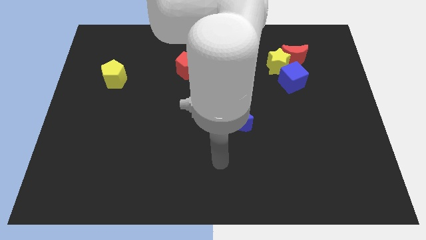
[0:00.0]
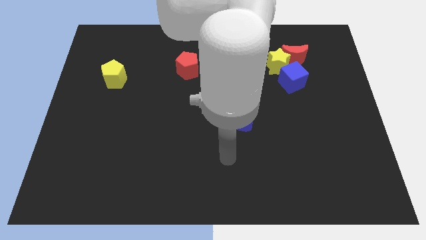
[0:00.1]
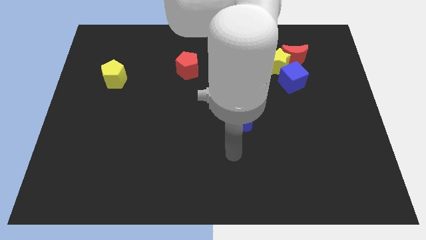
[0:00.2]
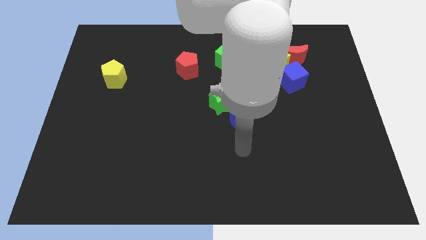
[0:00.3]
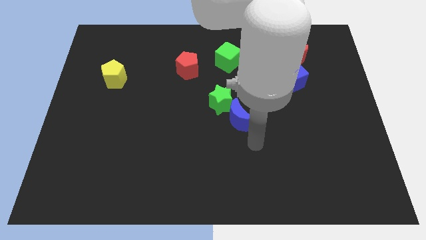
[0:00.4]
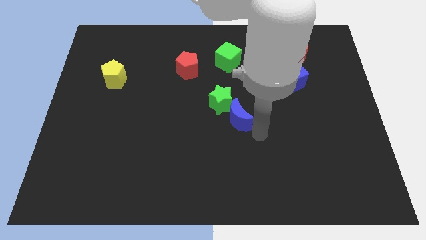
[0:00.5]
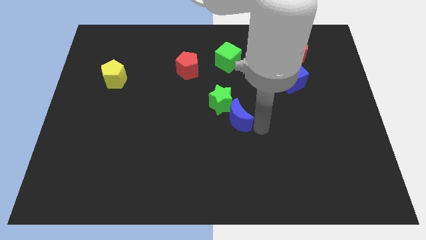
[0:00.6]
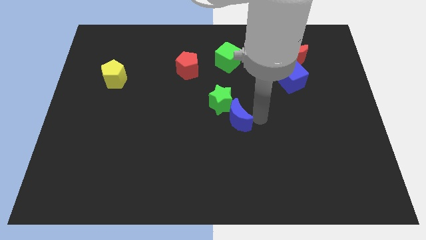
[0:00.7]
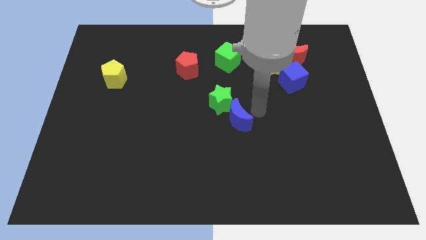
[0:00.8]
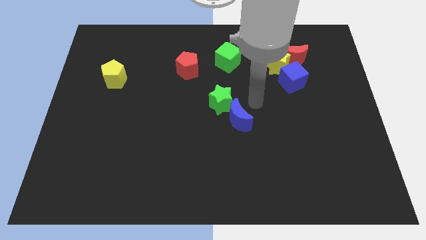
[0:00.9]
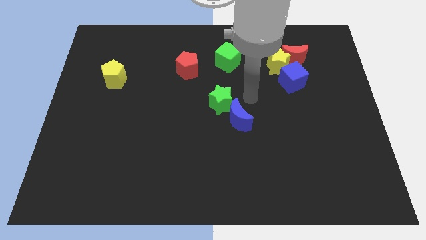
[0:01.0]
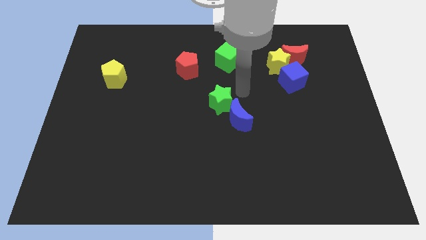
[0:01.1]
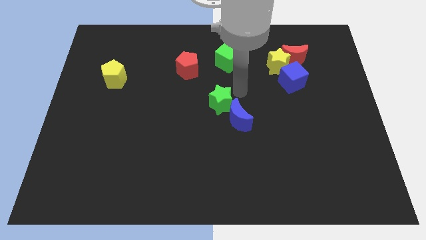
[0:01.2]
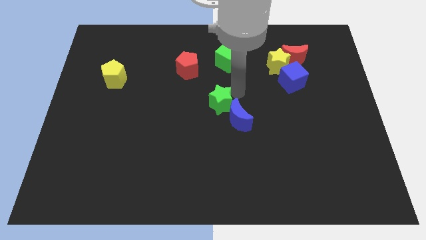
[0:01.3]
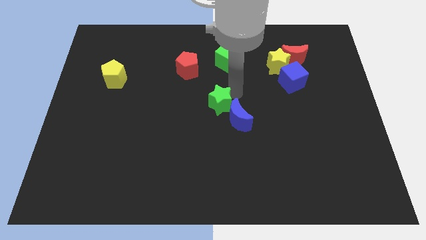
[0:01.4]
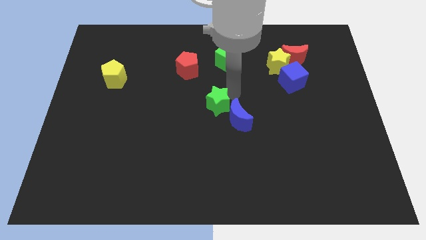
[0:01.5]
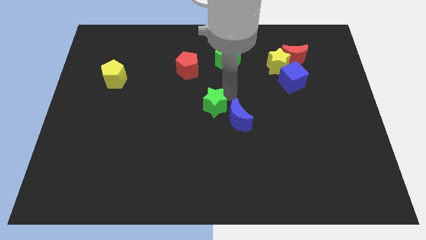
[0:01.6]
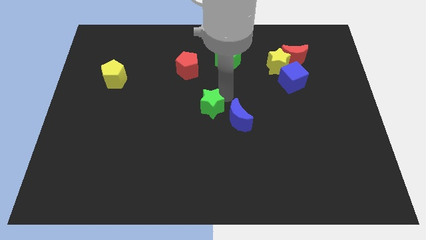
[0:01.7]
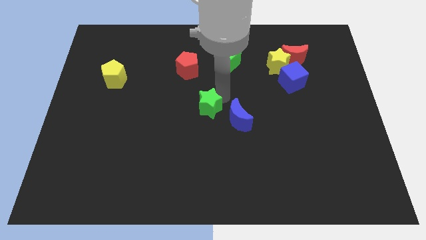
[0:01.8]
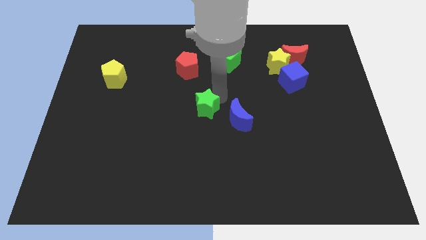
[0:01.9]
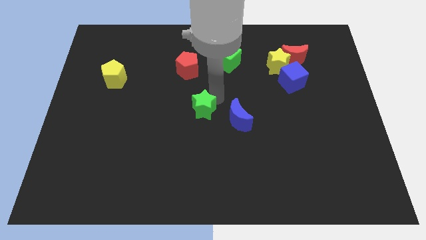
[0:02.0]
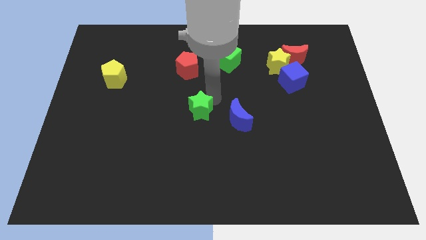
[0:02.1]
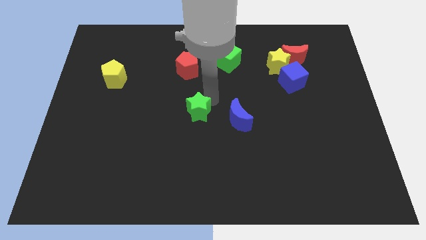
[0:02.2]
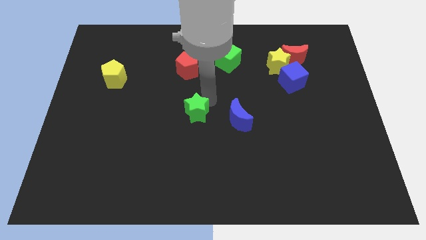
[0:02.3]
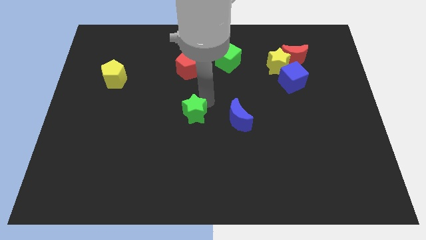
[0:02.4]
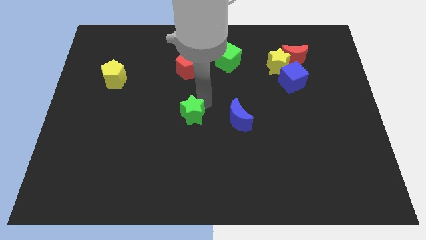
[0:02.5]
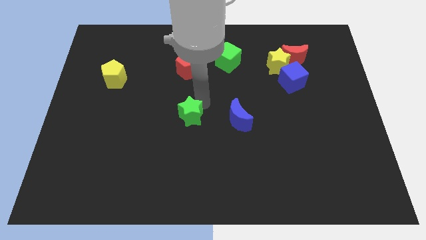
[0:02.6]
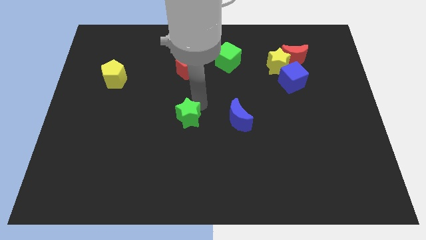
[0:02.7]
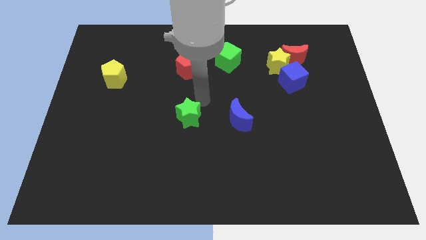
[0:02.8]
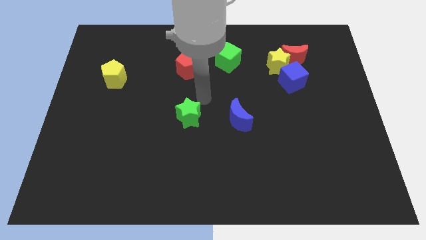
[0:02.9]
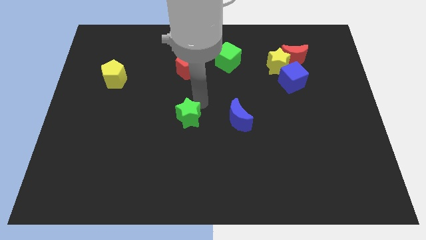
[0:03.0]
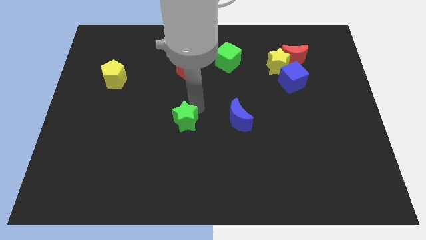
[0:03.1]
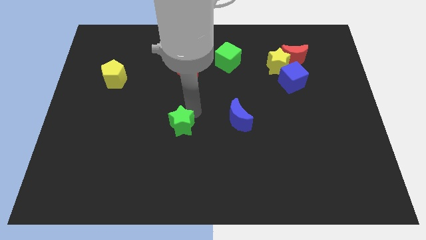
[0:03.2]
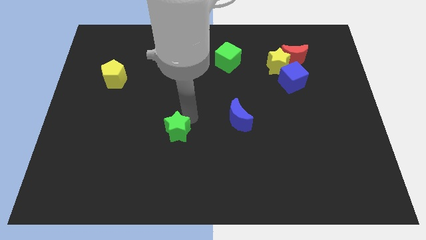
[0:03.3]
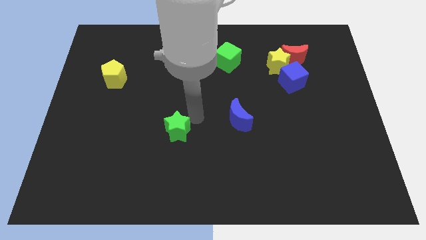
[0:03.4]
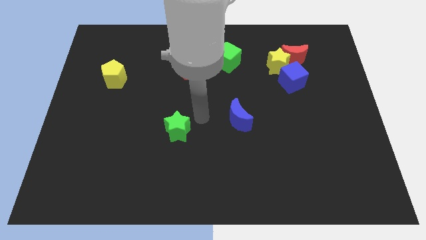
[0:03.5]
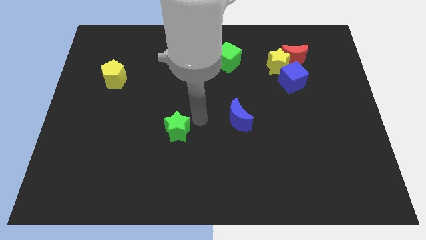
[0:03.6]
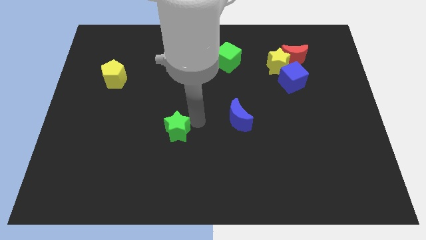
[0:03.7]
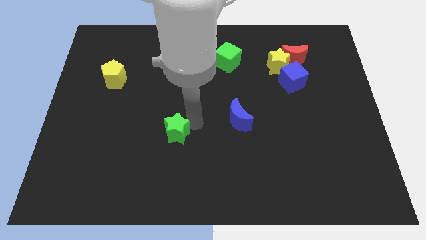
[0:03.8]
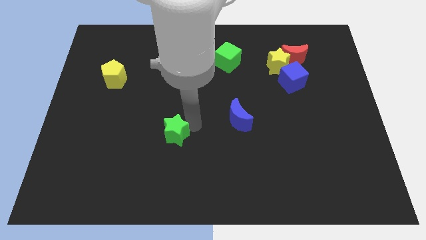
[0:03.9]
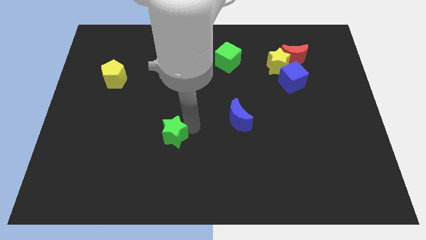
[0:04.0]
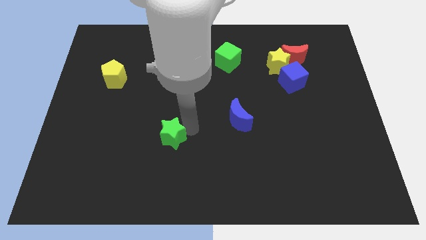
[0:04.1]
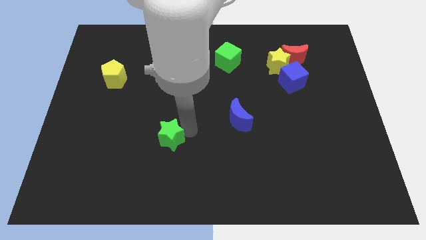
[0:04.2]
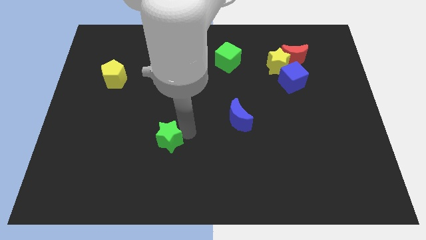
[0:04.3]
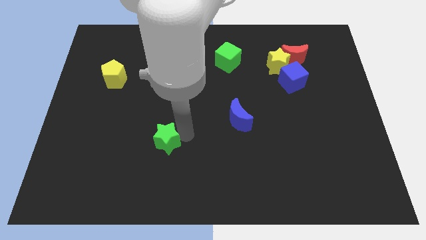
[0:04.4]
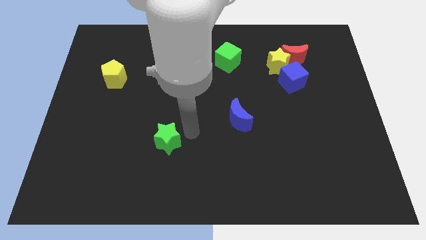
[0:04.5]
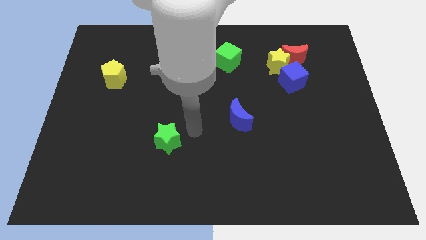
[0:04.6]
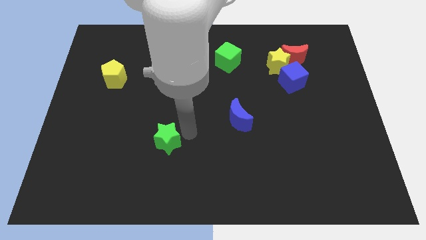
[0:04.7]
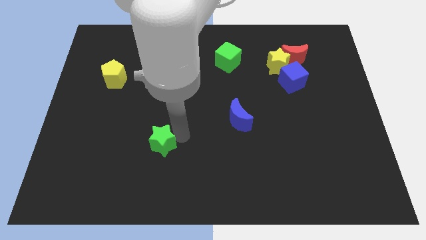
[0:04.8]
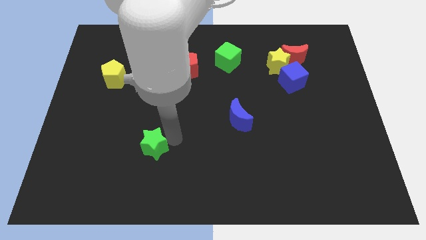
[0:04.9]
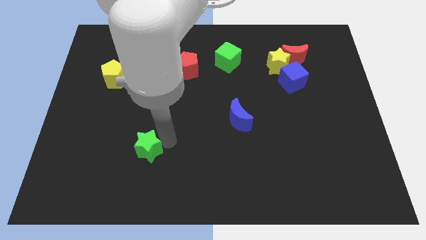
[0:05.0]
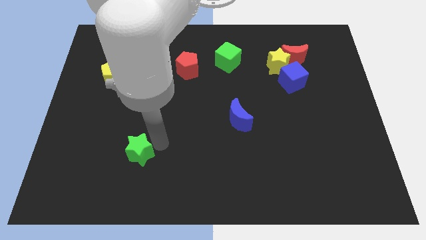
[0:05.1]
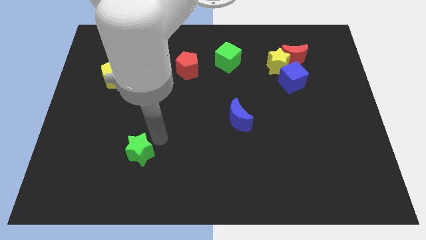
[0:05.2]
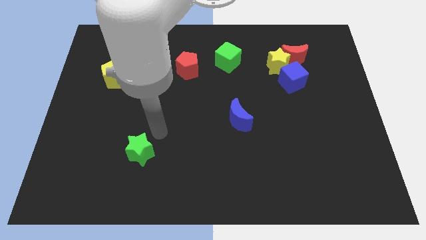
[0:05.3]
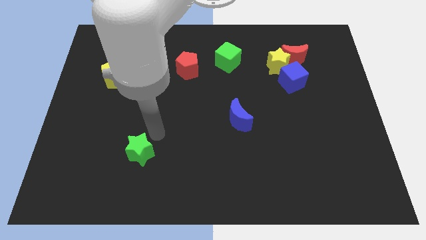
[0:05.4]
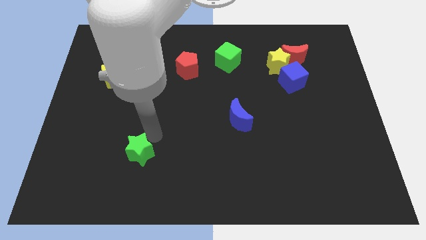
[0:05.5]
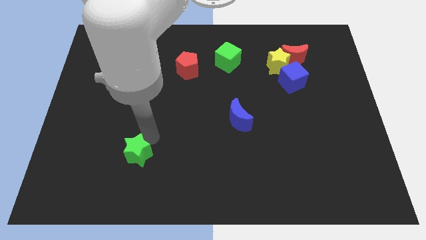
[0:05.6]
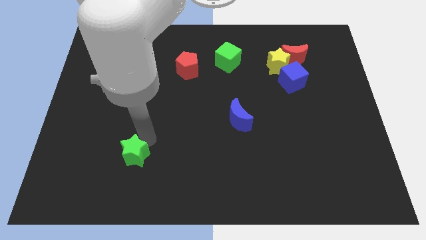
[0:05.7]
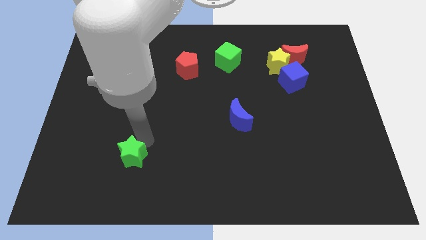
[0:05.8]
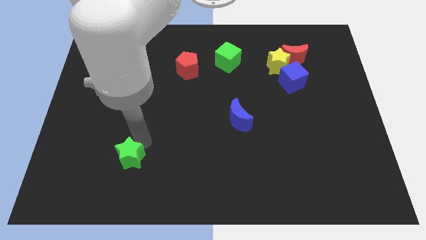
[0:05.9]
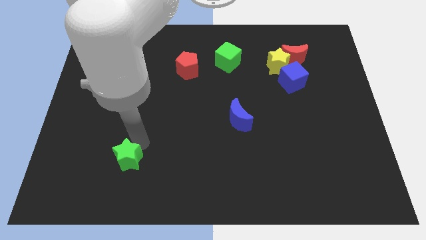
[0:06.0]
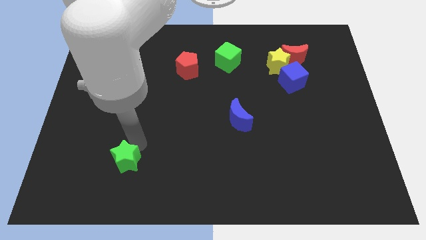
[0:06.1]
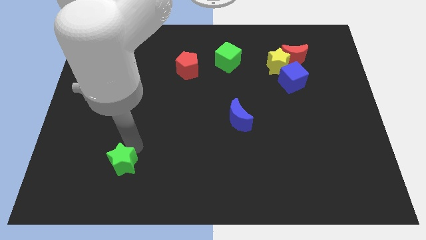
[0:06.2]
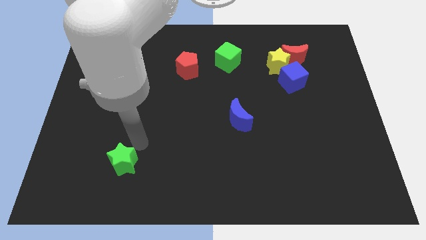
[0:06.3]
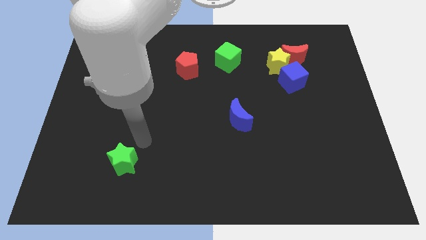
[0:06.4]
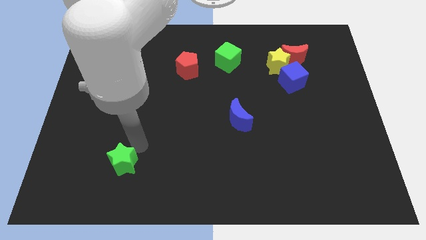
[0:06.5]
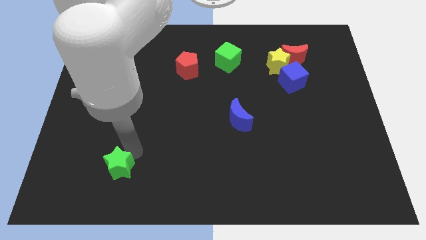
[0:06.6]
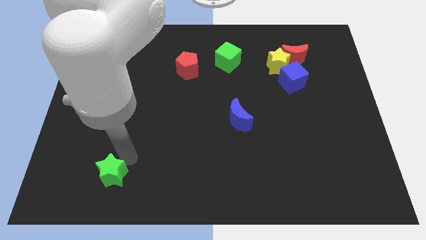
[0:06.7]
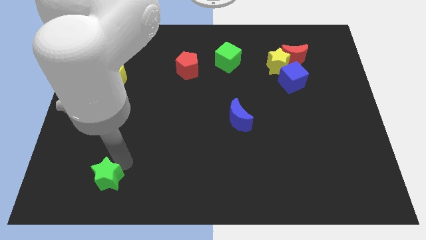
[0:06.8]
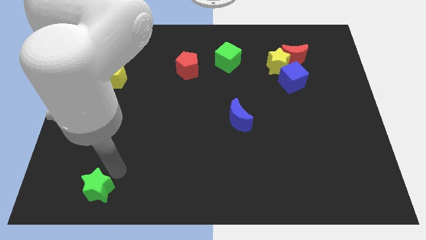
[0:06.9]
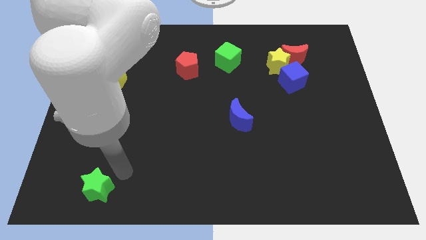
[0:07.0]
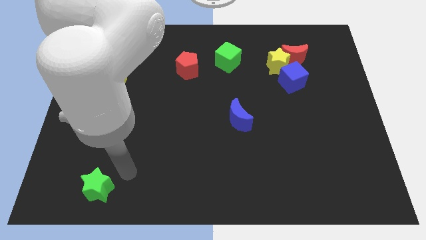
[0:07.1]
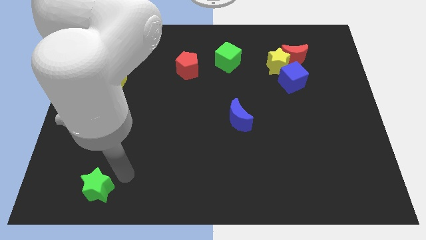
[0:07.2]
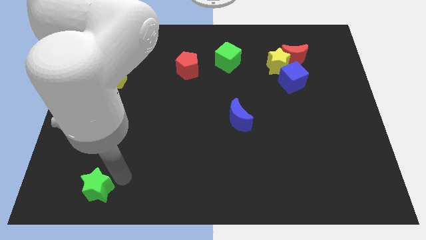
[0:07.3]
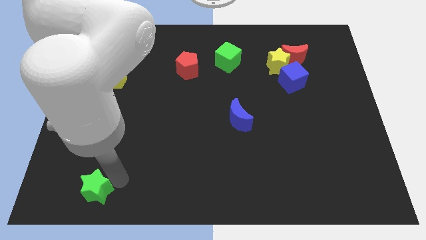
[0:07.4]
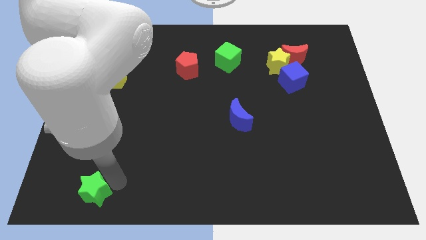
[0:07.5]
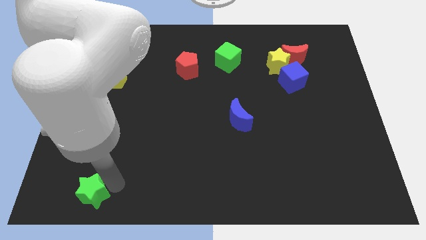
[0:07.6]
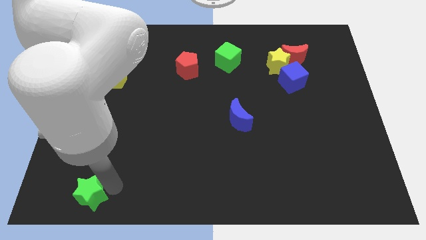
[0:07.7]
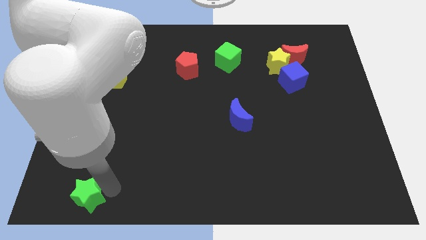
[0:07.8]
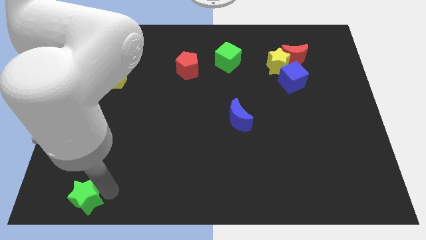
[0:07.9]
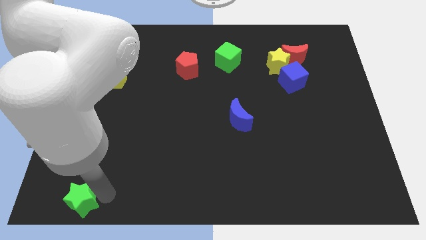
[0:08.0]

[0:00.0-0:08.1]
move the green star to the lower left corner
